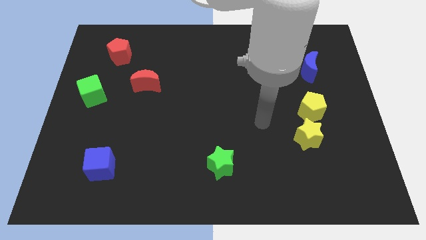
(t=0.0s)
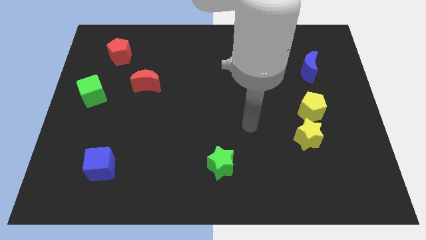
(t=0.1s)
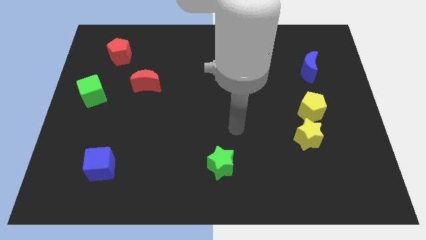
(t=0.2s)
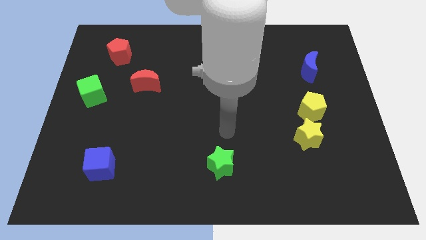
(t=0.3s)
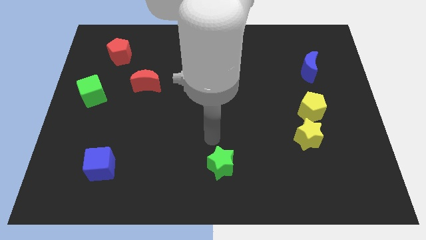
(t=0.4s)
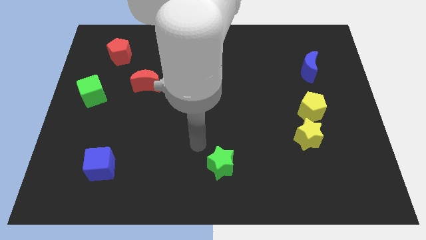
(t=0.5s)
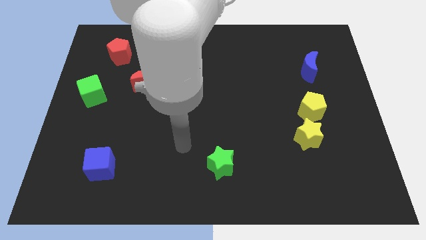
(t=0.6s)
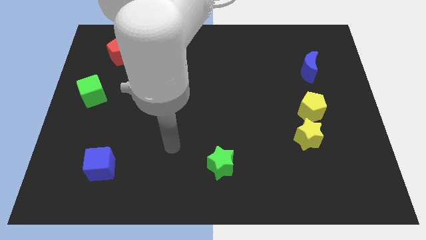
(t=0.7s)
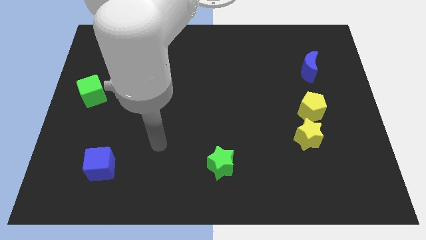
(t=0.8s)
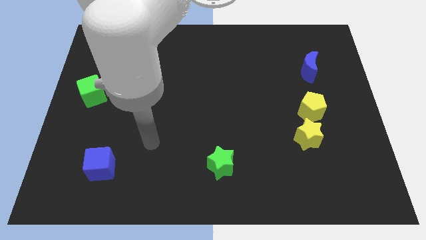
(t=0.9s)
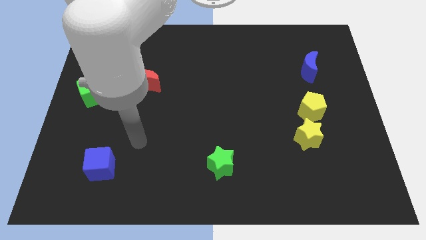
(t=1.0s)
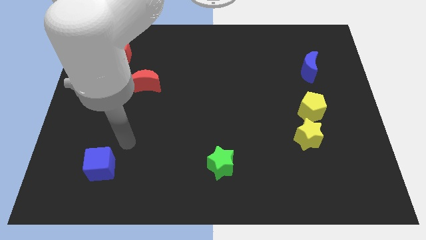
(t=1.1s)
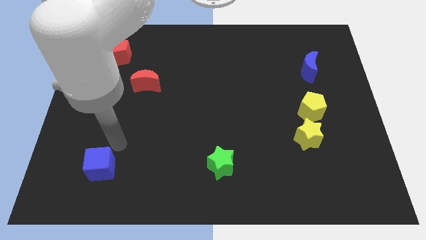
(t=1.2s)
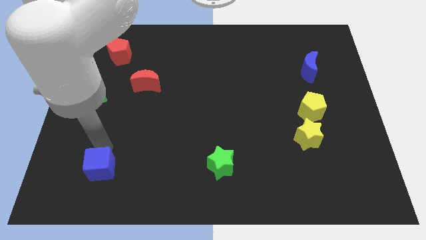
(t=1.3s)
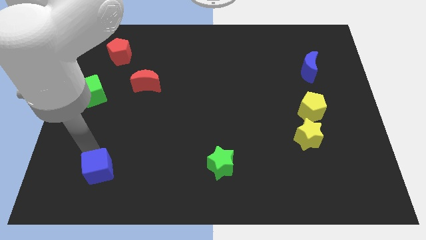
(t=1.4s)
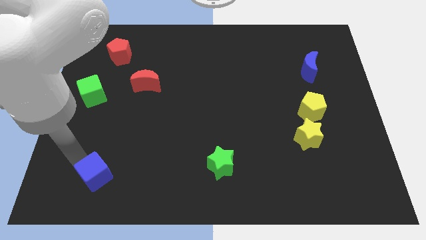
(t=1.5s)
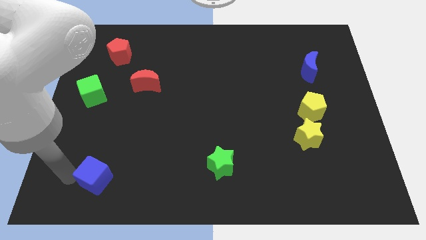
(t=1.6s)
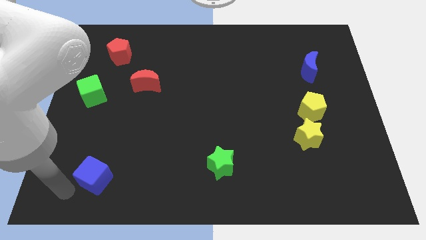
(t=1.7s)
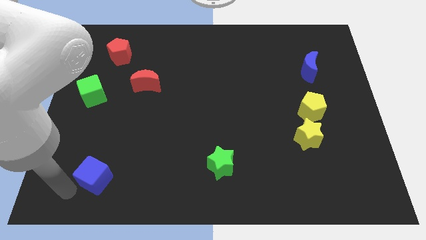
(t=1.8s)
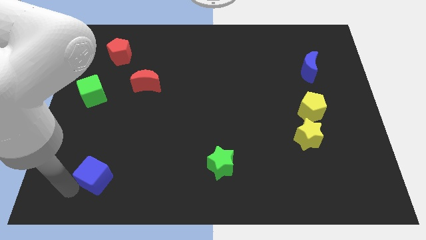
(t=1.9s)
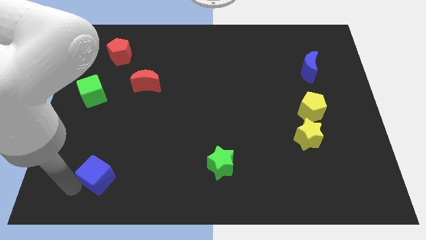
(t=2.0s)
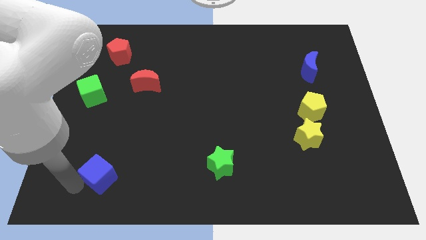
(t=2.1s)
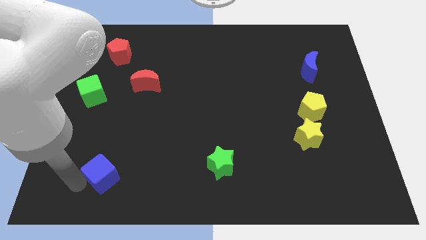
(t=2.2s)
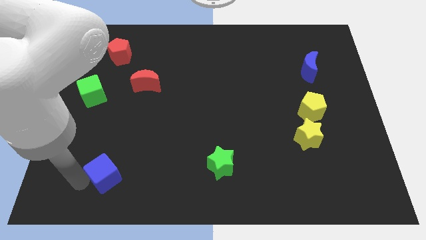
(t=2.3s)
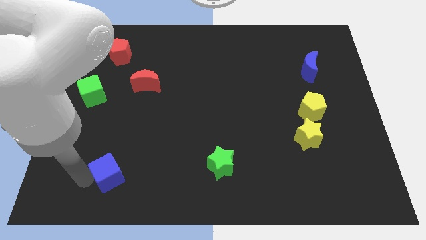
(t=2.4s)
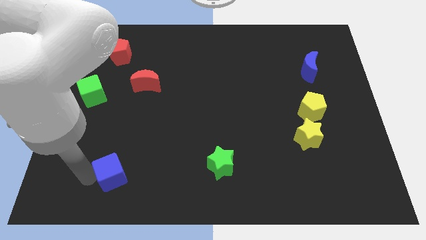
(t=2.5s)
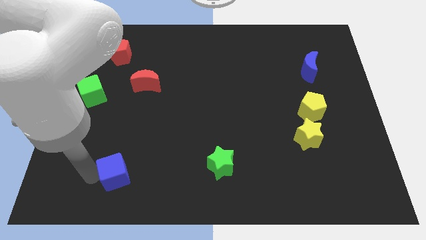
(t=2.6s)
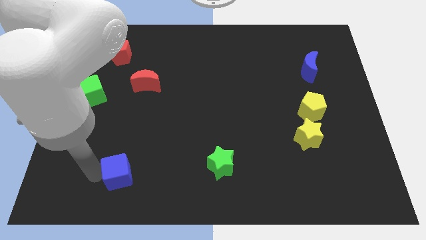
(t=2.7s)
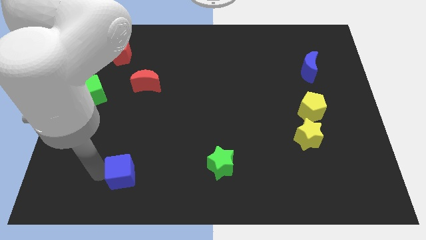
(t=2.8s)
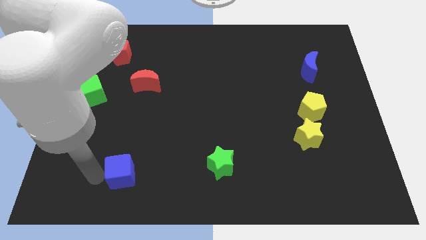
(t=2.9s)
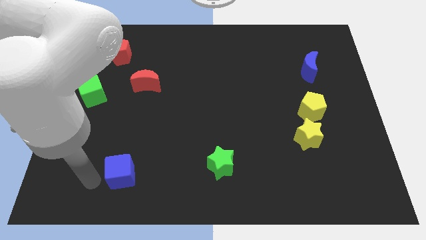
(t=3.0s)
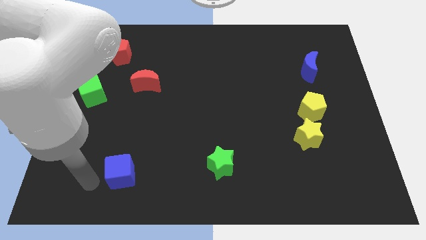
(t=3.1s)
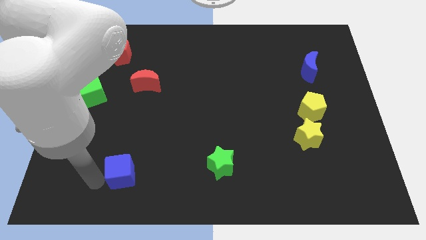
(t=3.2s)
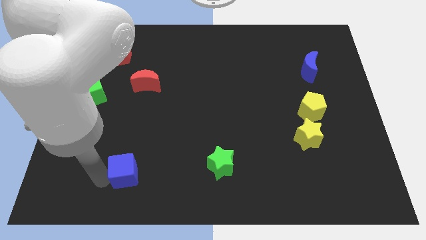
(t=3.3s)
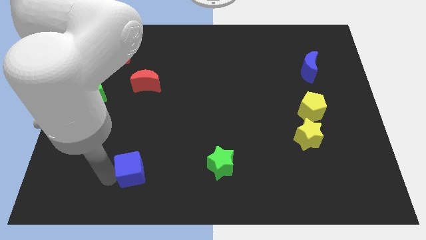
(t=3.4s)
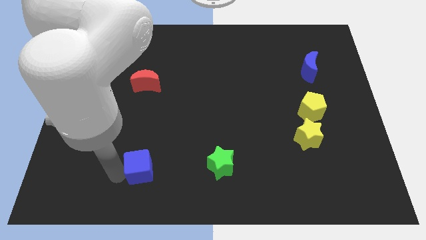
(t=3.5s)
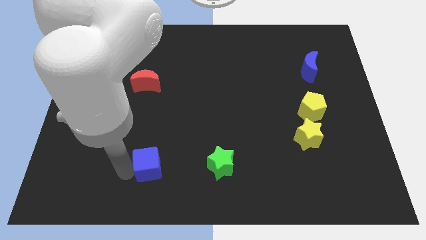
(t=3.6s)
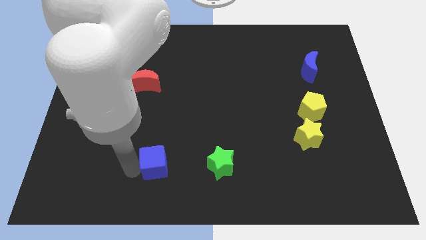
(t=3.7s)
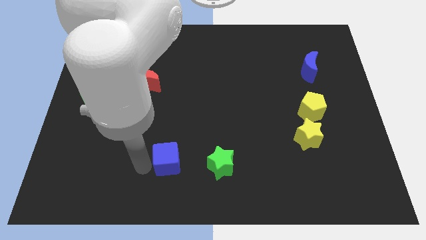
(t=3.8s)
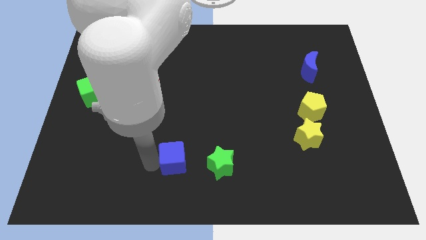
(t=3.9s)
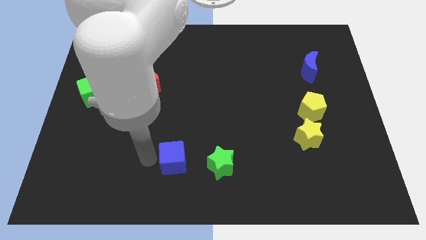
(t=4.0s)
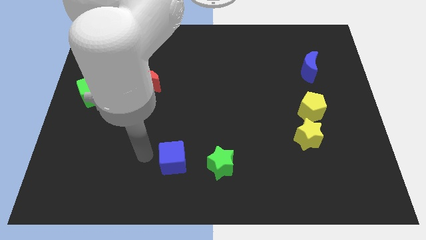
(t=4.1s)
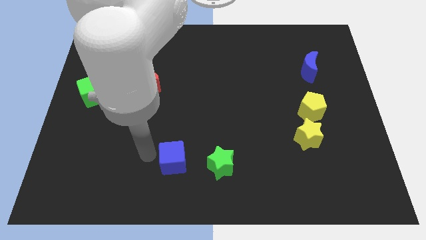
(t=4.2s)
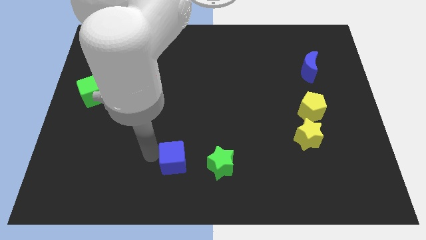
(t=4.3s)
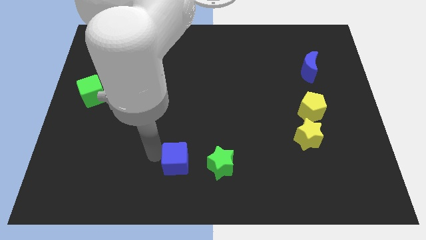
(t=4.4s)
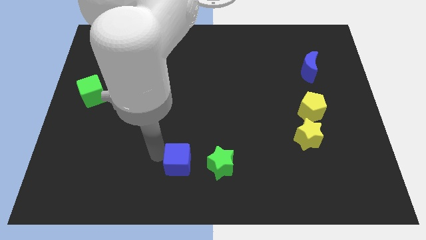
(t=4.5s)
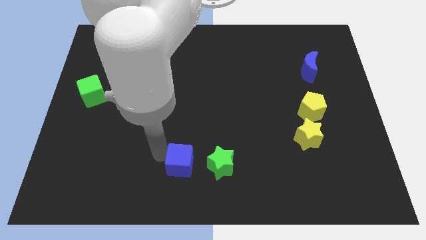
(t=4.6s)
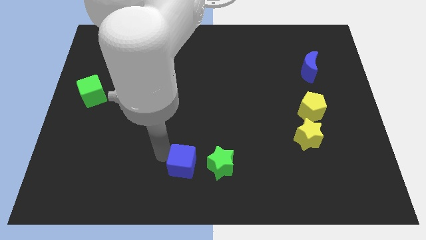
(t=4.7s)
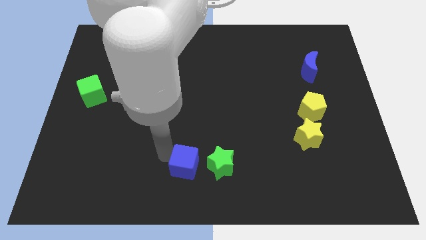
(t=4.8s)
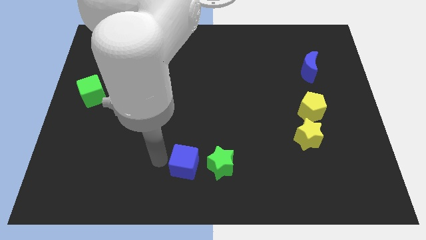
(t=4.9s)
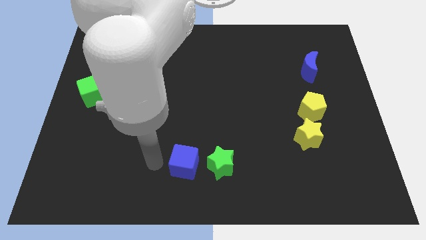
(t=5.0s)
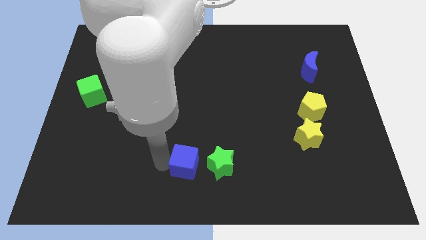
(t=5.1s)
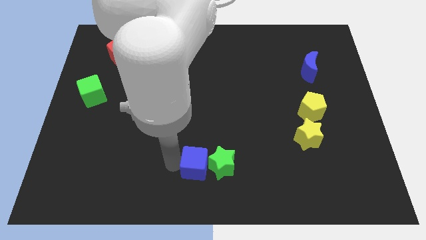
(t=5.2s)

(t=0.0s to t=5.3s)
slide the blue cube close to the green star

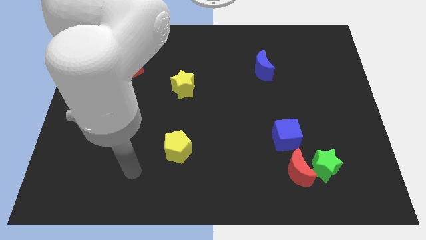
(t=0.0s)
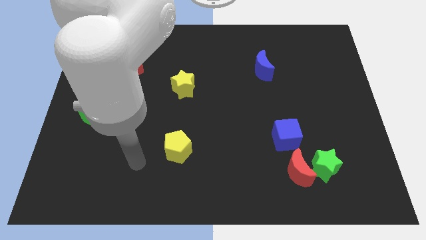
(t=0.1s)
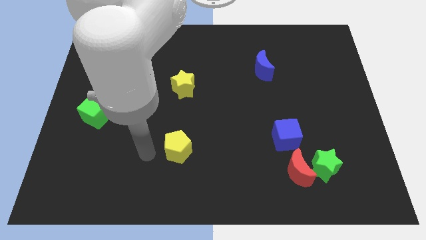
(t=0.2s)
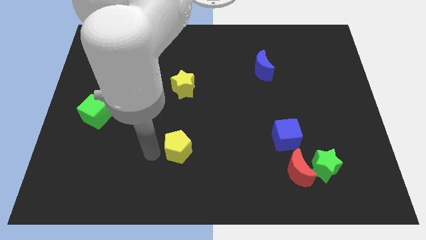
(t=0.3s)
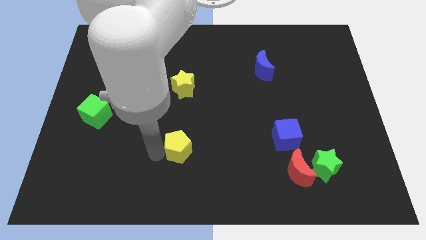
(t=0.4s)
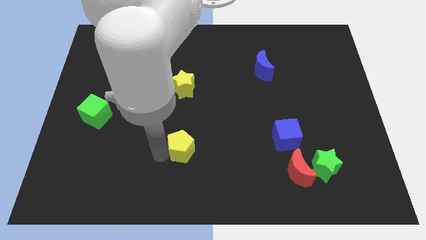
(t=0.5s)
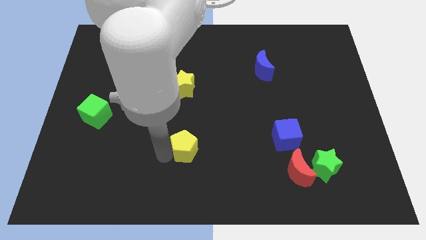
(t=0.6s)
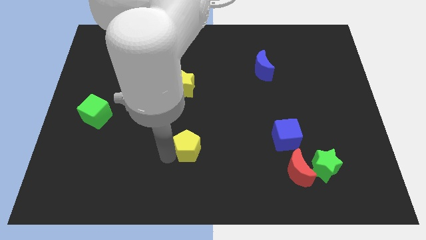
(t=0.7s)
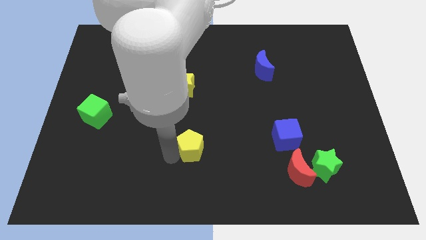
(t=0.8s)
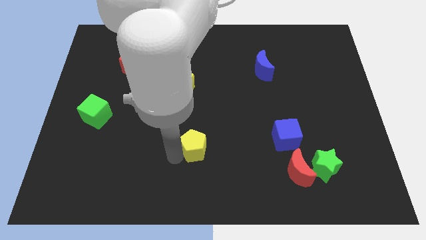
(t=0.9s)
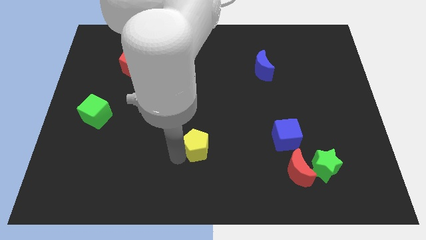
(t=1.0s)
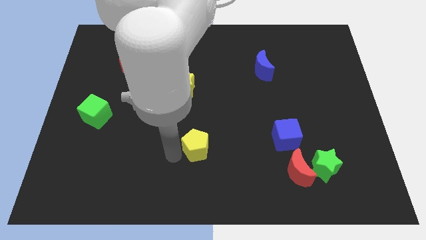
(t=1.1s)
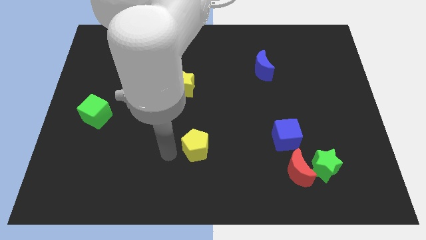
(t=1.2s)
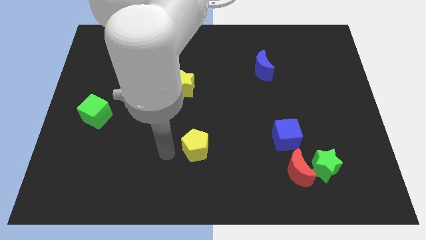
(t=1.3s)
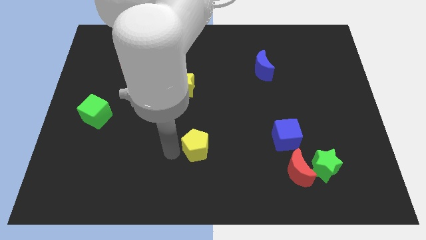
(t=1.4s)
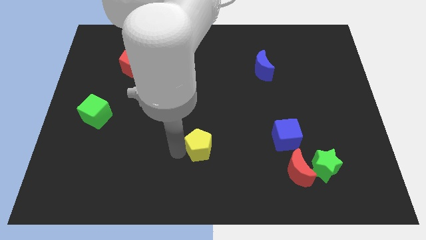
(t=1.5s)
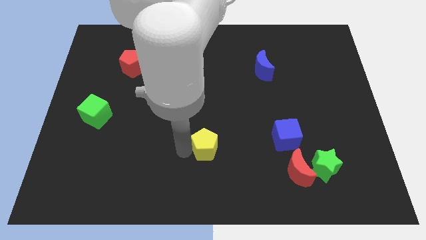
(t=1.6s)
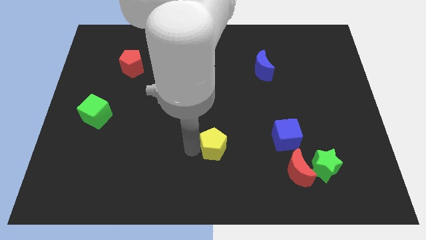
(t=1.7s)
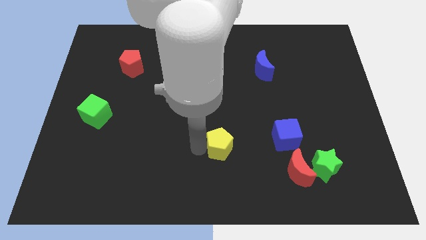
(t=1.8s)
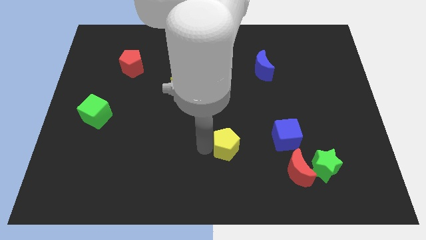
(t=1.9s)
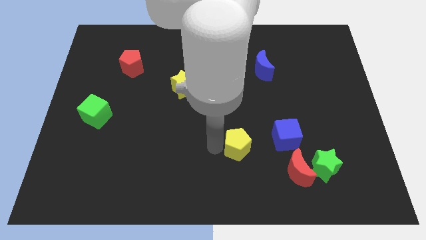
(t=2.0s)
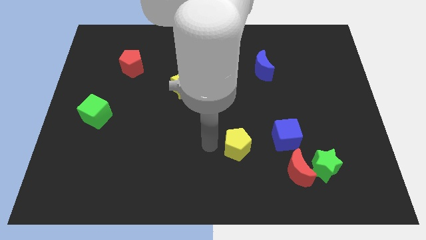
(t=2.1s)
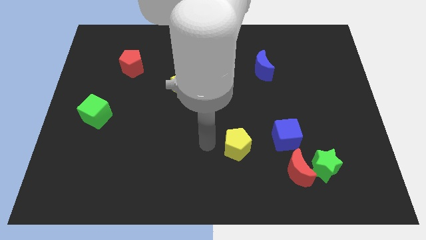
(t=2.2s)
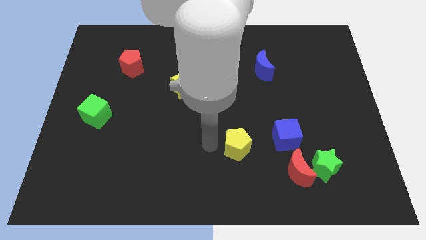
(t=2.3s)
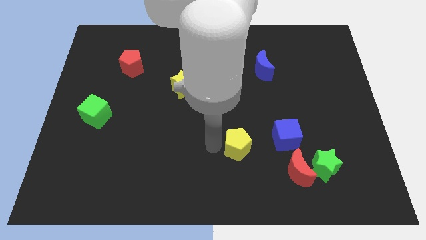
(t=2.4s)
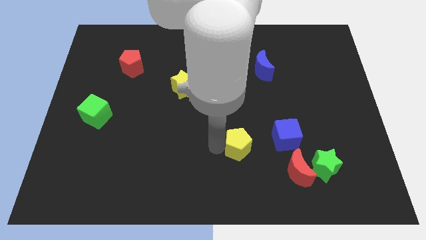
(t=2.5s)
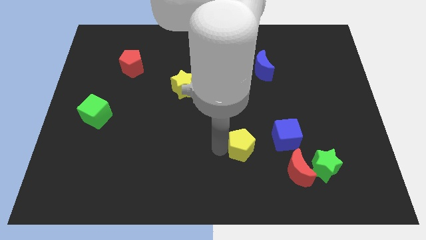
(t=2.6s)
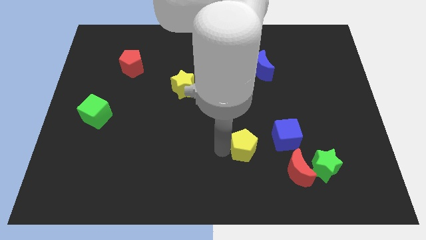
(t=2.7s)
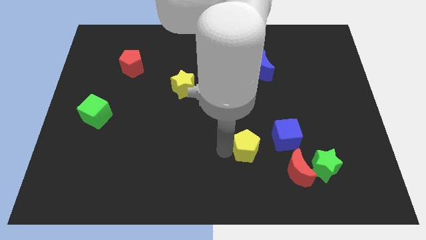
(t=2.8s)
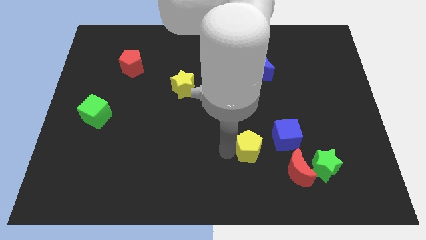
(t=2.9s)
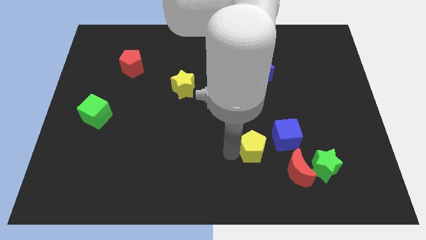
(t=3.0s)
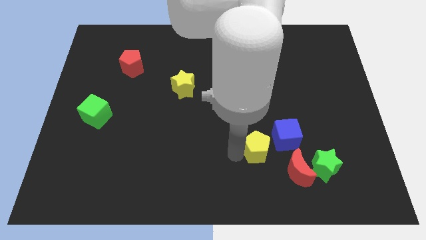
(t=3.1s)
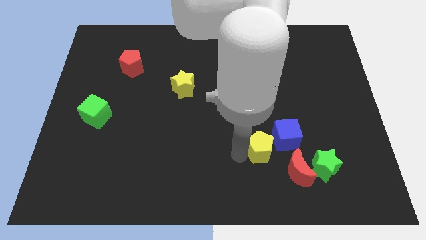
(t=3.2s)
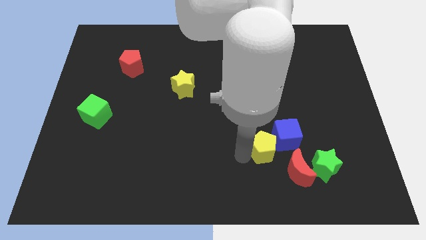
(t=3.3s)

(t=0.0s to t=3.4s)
put the yellow pentagon next to the blue cube
